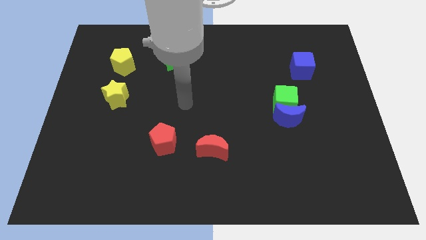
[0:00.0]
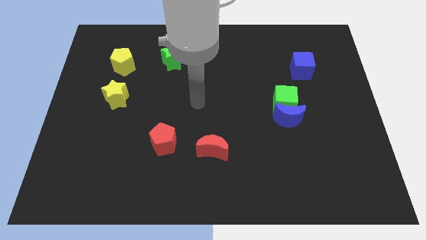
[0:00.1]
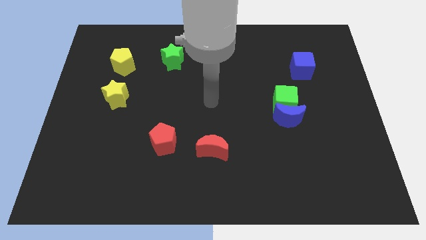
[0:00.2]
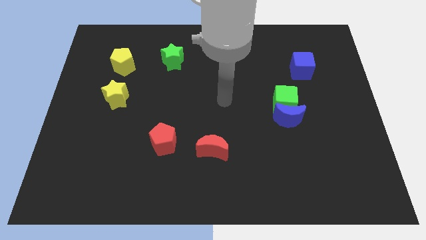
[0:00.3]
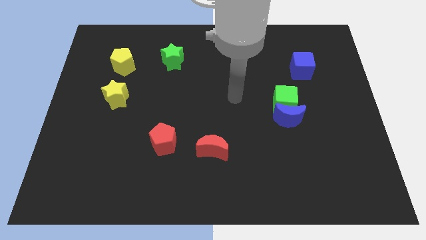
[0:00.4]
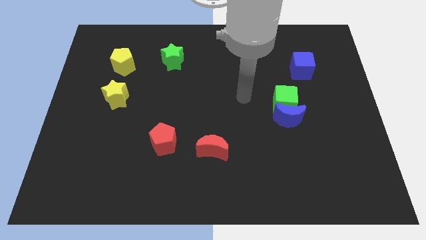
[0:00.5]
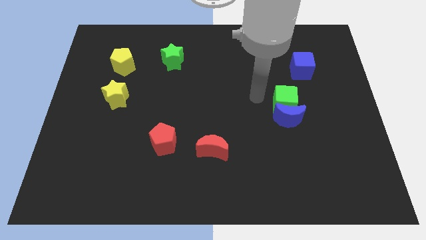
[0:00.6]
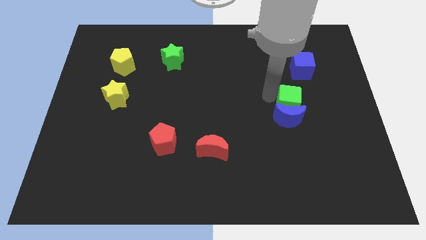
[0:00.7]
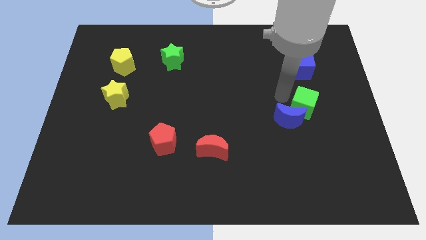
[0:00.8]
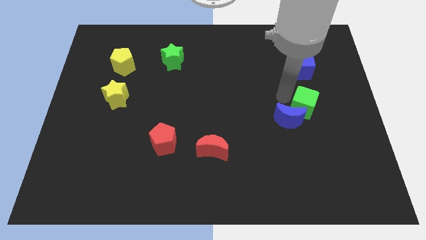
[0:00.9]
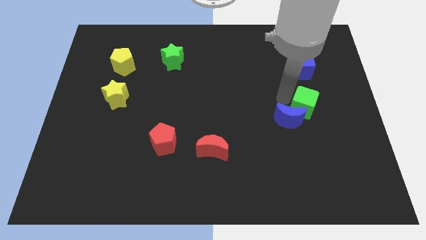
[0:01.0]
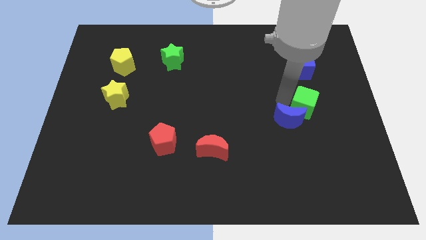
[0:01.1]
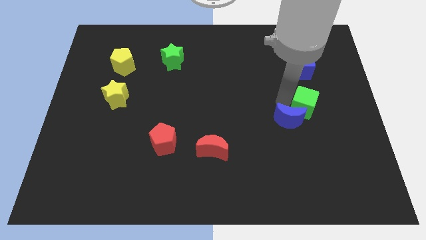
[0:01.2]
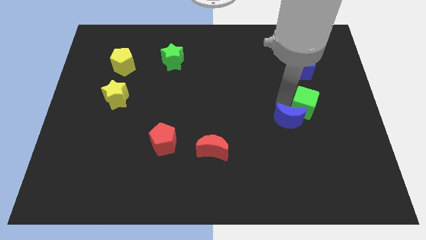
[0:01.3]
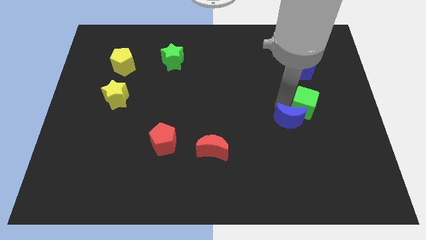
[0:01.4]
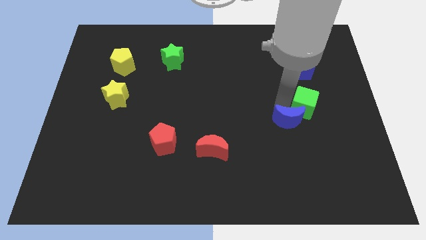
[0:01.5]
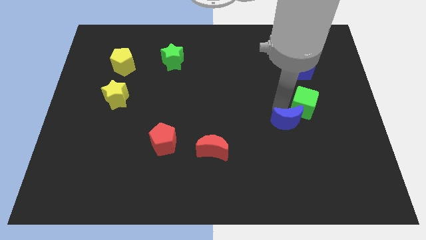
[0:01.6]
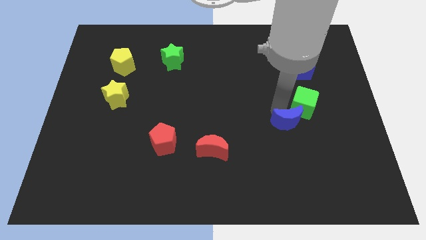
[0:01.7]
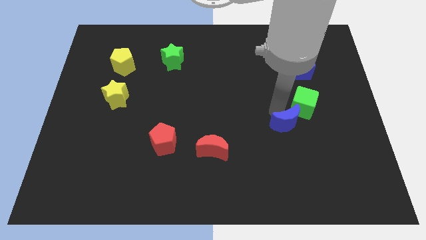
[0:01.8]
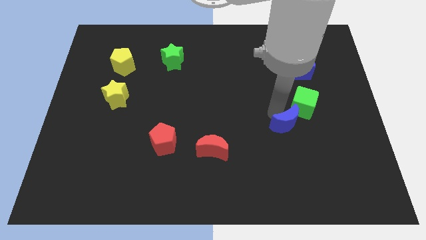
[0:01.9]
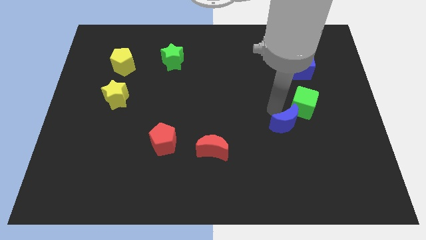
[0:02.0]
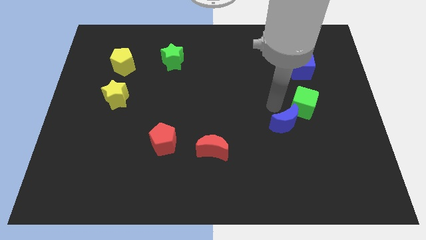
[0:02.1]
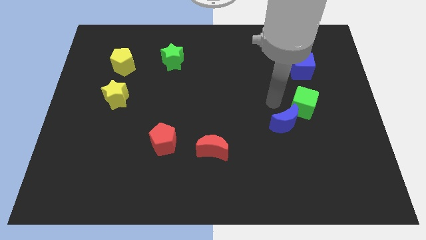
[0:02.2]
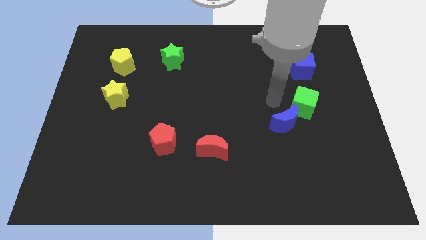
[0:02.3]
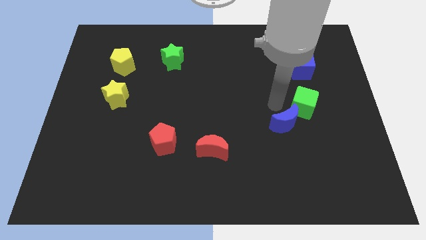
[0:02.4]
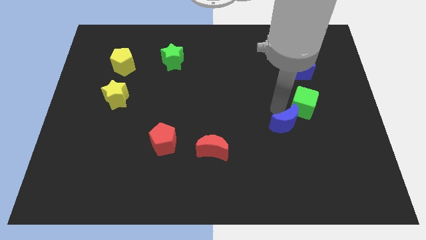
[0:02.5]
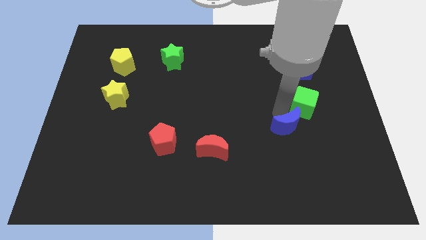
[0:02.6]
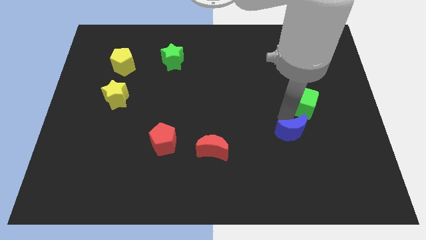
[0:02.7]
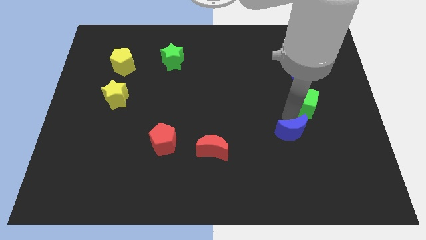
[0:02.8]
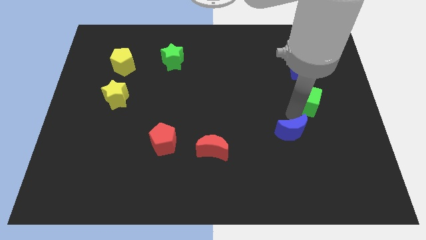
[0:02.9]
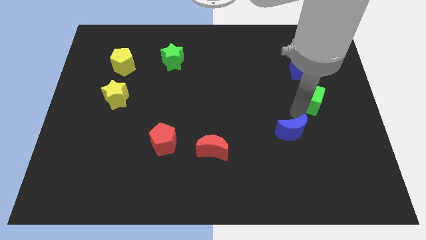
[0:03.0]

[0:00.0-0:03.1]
pull the blue moon apart from the green cube

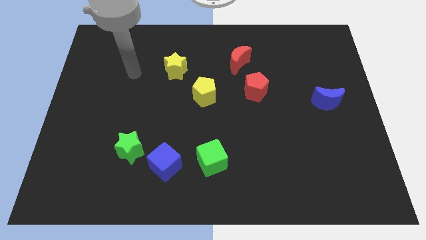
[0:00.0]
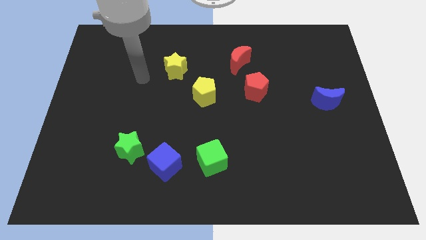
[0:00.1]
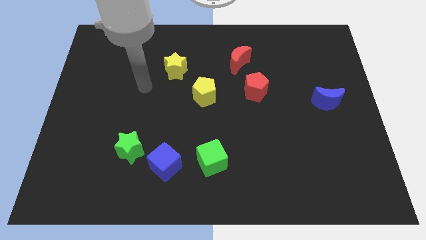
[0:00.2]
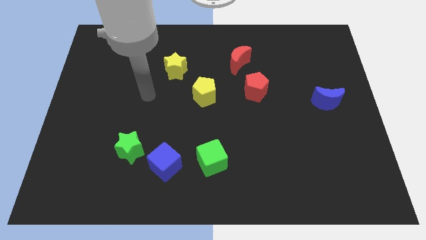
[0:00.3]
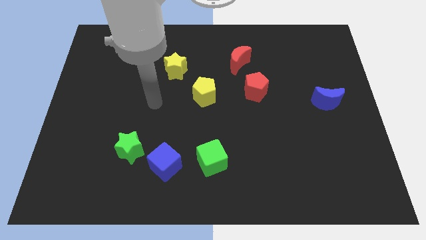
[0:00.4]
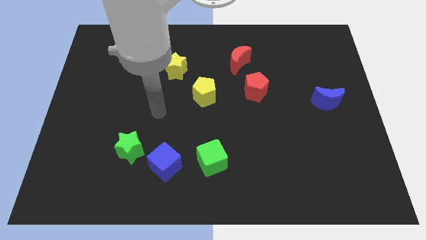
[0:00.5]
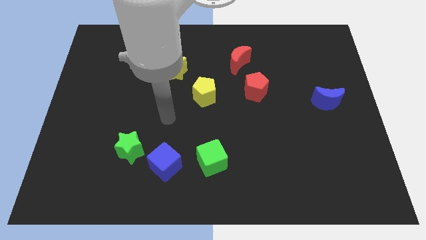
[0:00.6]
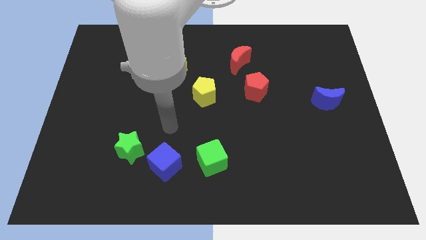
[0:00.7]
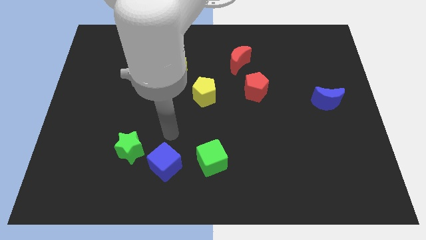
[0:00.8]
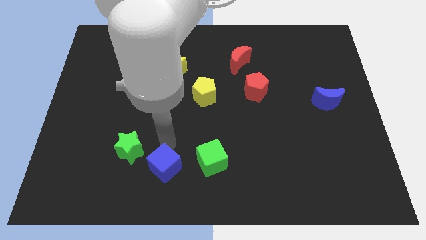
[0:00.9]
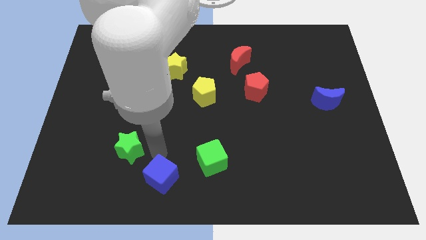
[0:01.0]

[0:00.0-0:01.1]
pull the green star apart from the blue cube

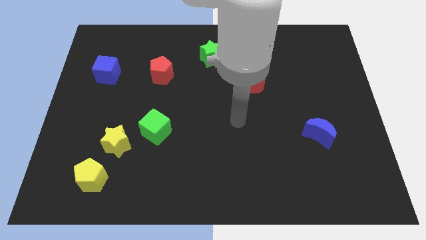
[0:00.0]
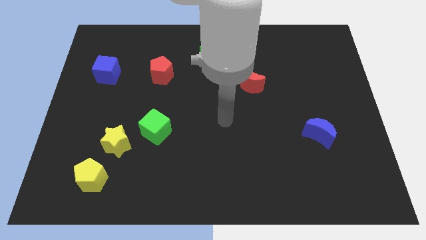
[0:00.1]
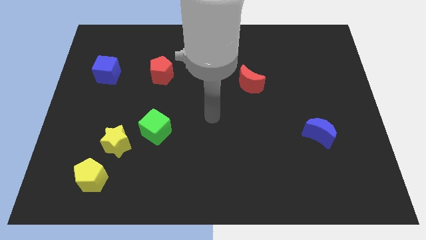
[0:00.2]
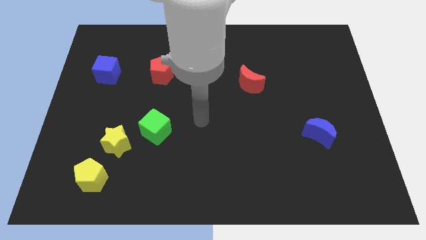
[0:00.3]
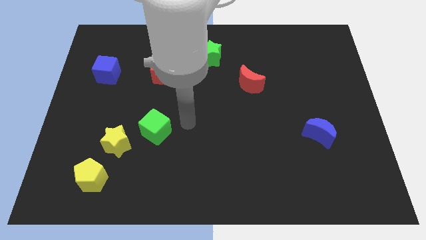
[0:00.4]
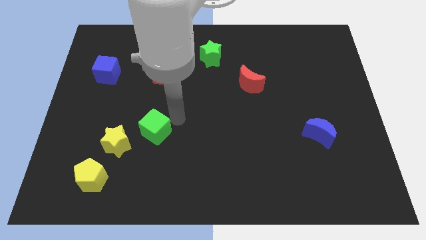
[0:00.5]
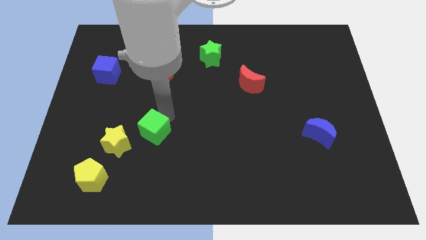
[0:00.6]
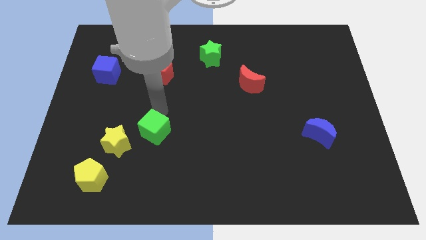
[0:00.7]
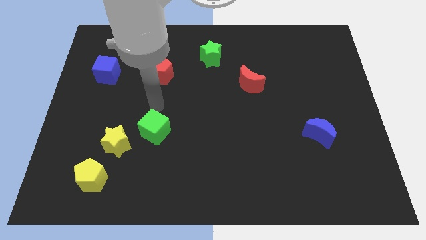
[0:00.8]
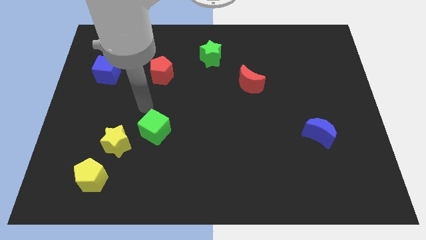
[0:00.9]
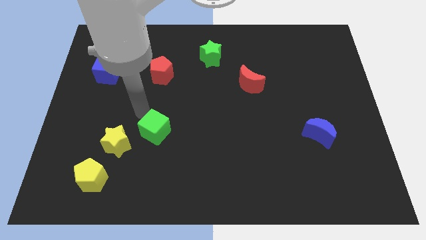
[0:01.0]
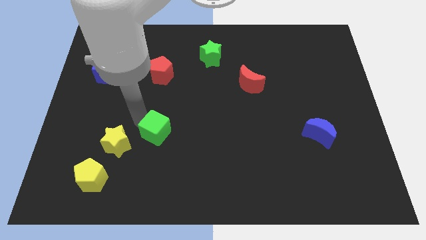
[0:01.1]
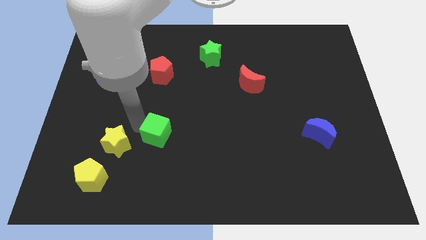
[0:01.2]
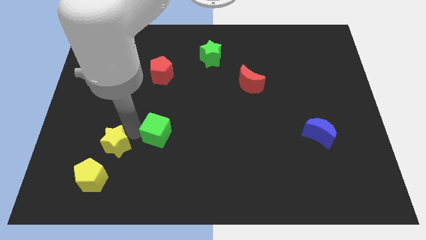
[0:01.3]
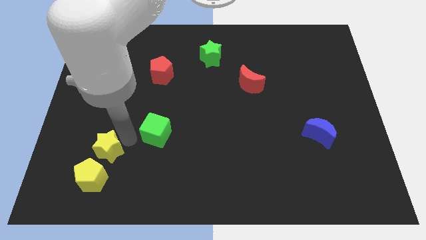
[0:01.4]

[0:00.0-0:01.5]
move the green cube away from the yellow star

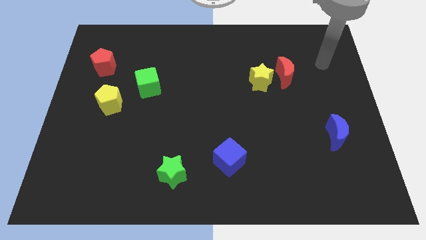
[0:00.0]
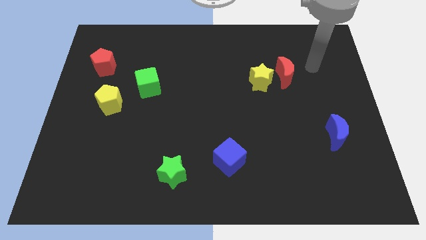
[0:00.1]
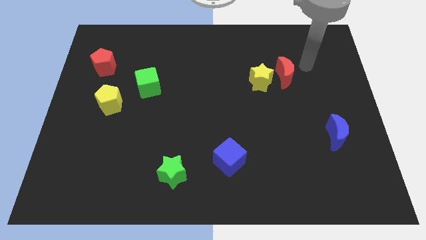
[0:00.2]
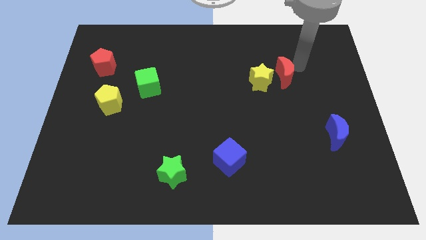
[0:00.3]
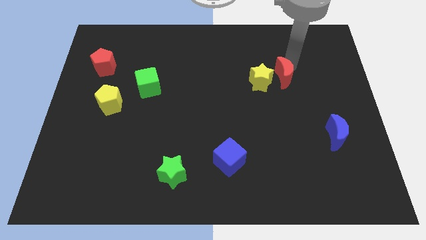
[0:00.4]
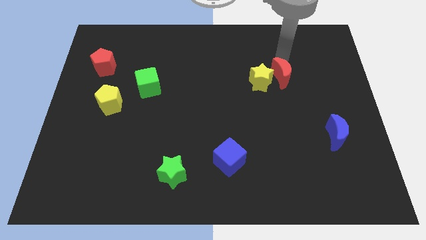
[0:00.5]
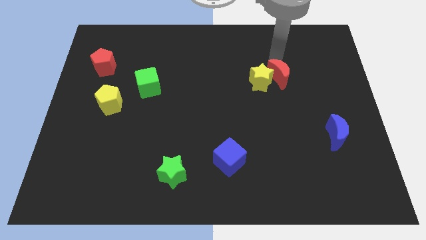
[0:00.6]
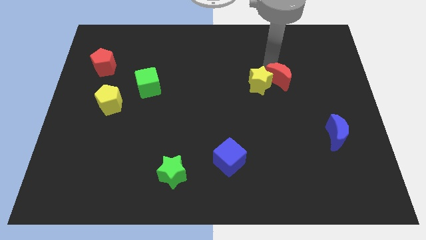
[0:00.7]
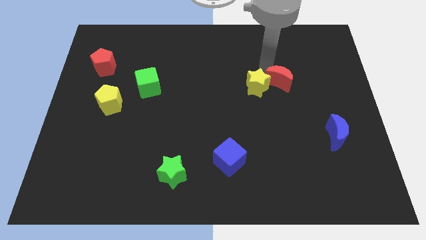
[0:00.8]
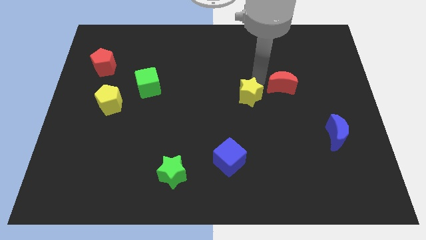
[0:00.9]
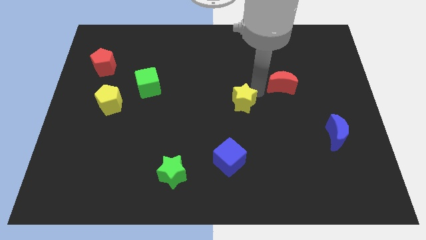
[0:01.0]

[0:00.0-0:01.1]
separate the red moon from the yellow star

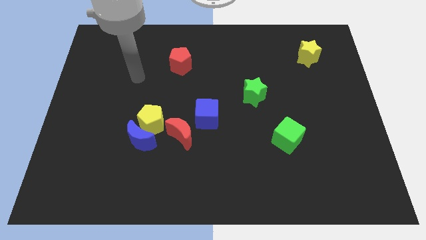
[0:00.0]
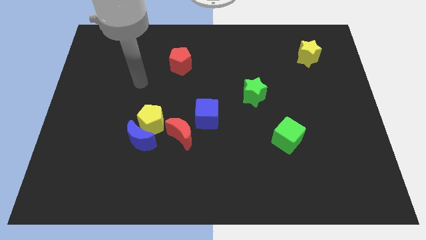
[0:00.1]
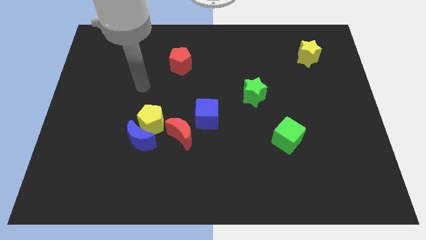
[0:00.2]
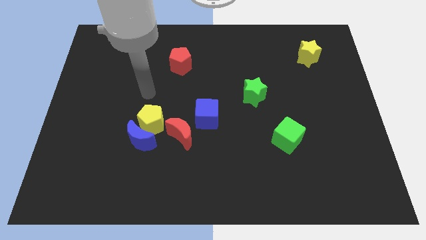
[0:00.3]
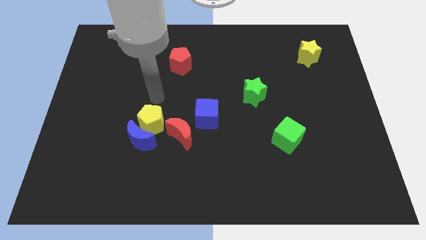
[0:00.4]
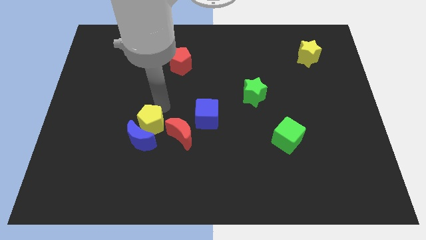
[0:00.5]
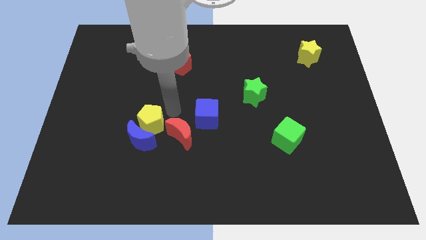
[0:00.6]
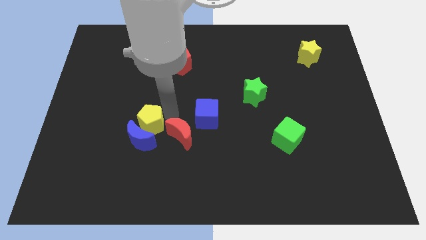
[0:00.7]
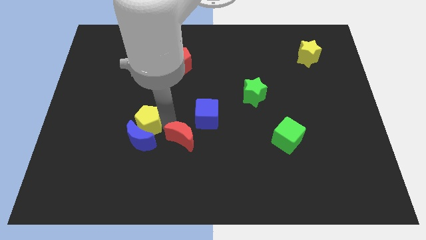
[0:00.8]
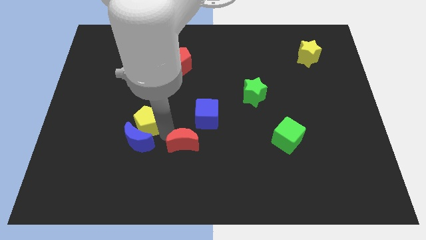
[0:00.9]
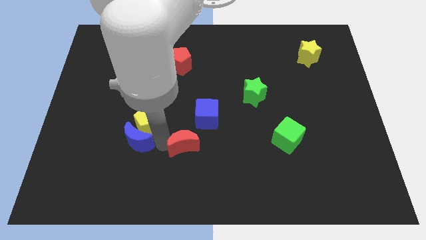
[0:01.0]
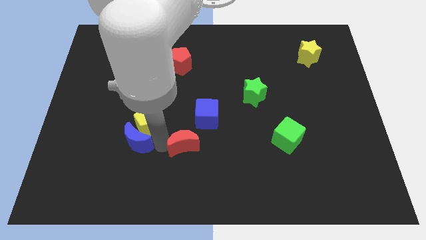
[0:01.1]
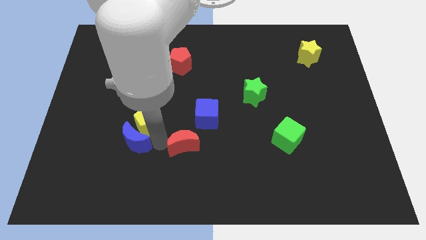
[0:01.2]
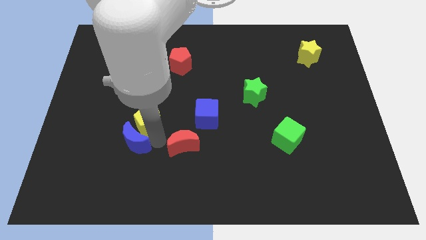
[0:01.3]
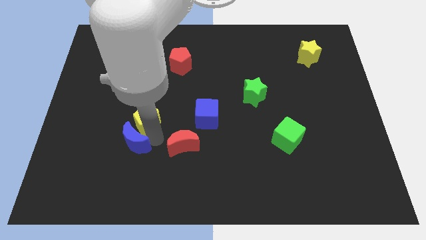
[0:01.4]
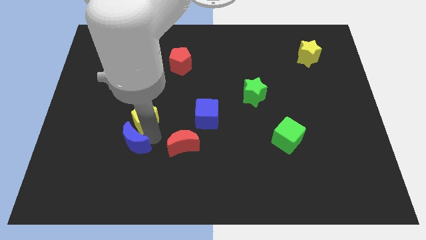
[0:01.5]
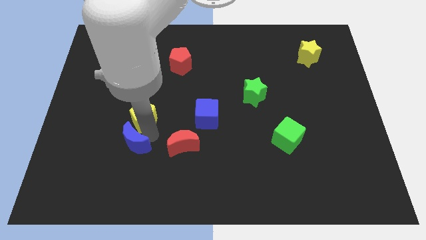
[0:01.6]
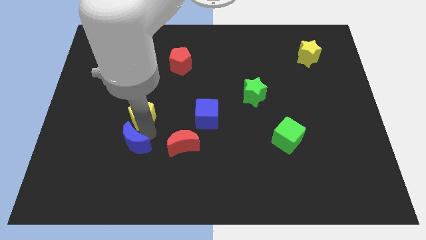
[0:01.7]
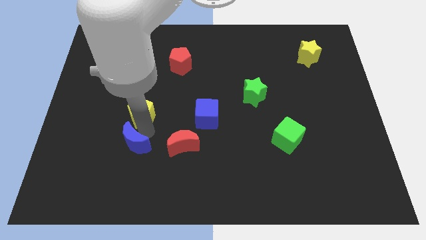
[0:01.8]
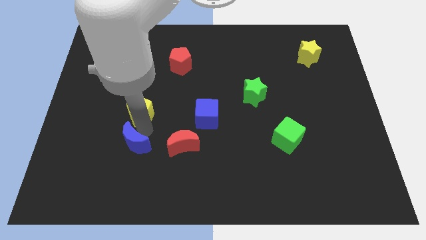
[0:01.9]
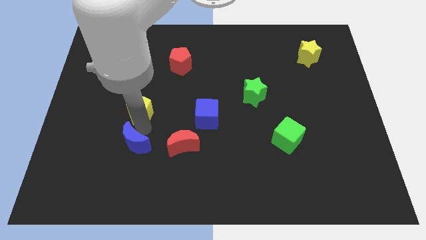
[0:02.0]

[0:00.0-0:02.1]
pull the yellow pentagon apart from the blue moon and red moon

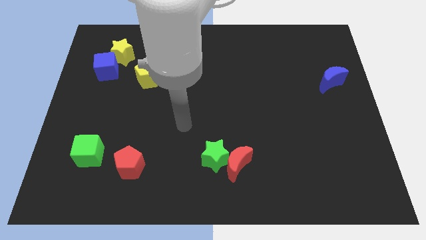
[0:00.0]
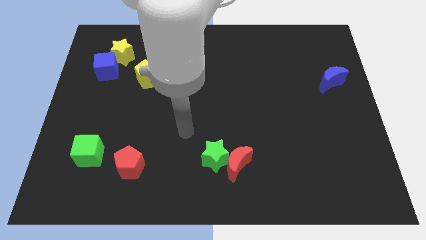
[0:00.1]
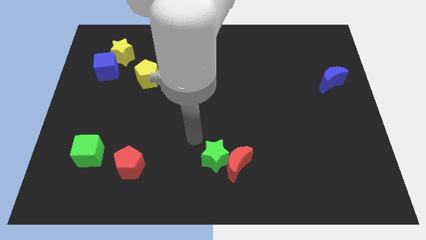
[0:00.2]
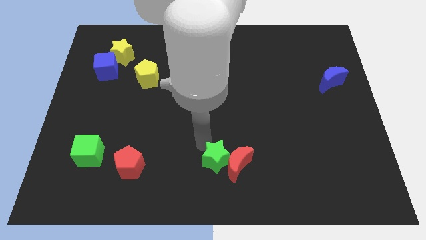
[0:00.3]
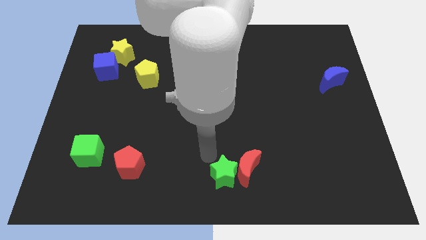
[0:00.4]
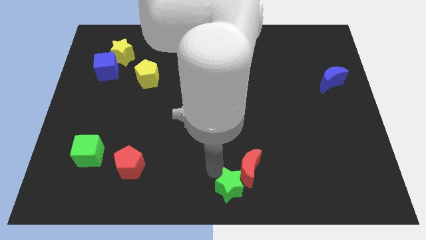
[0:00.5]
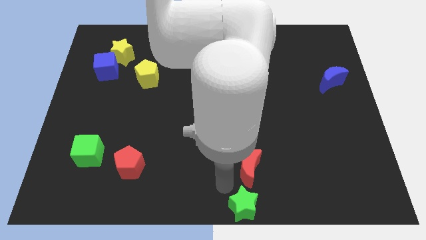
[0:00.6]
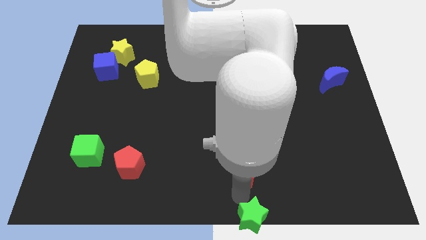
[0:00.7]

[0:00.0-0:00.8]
move the red moon away from the green star
